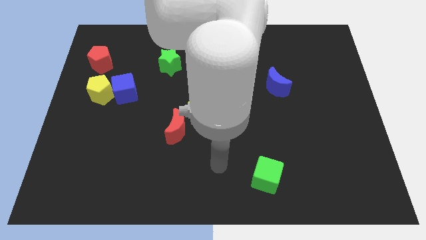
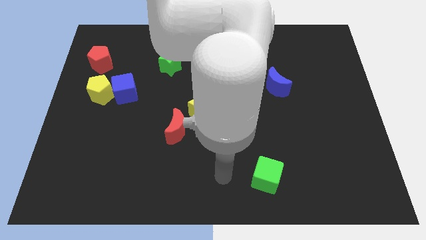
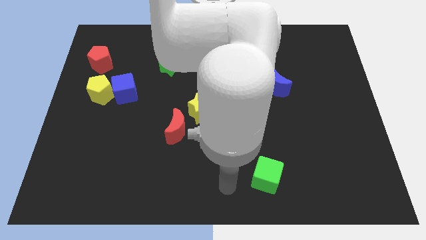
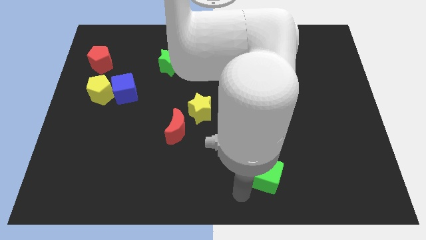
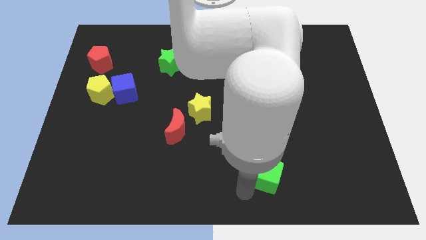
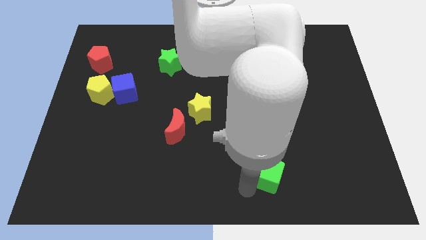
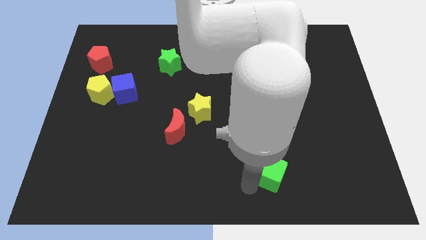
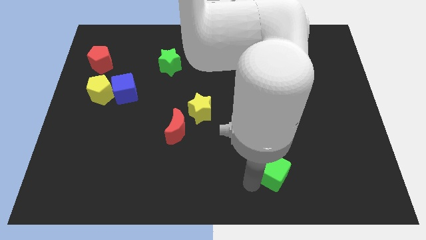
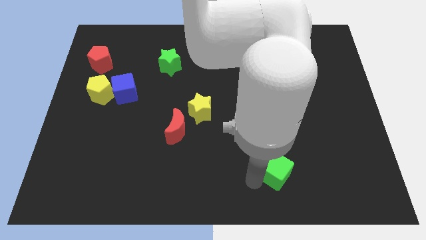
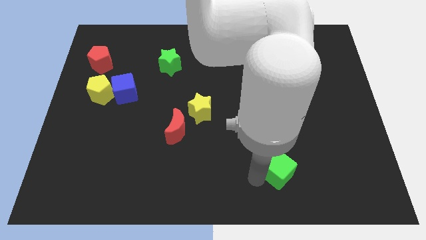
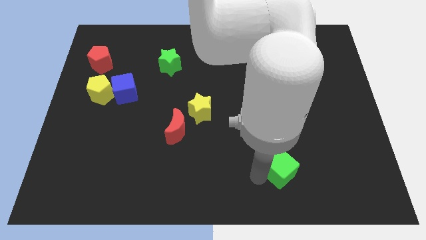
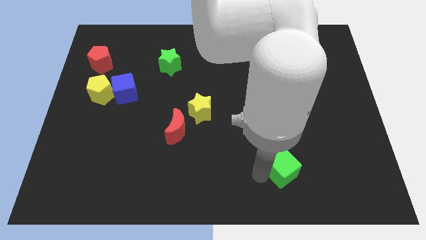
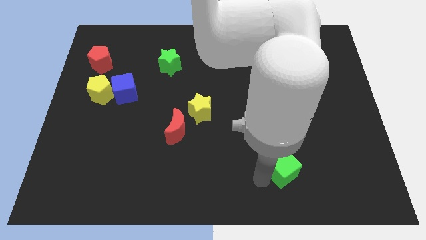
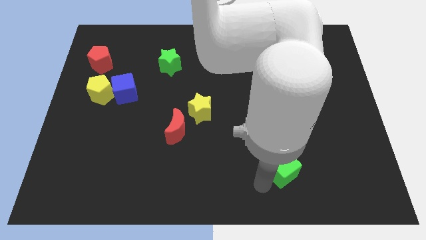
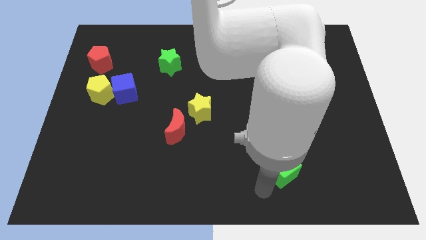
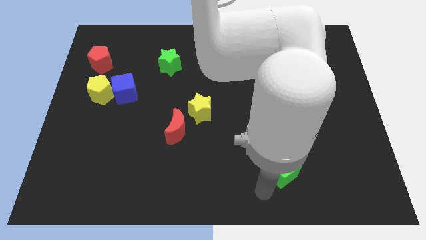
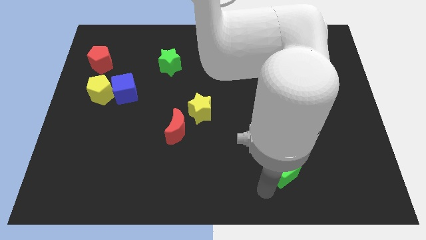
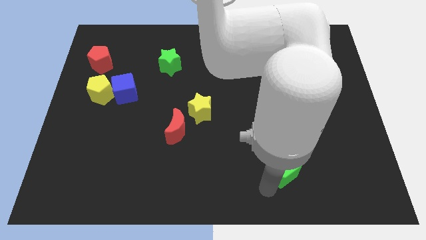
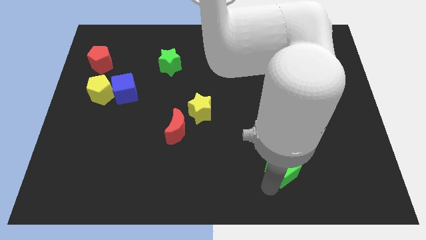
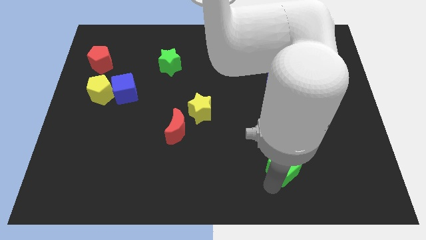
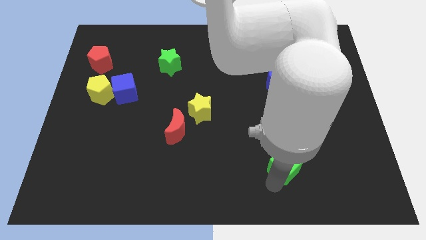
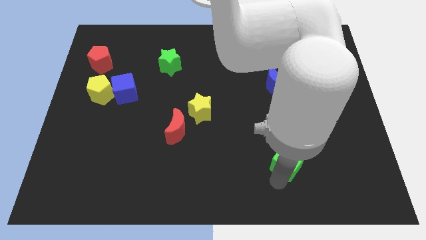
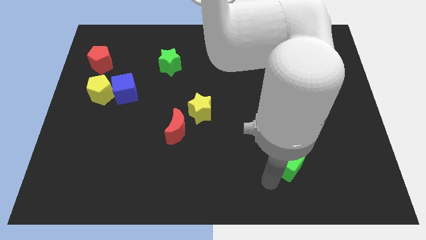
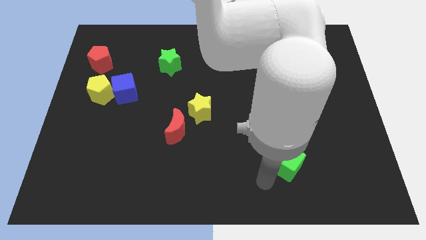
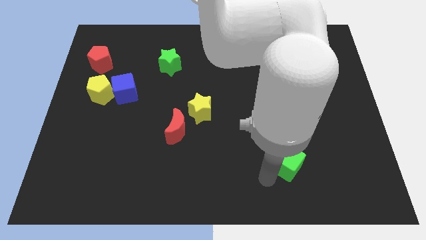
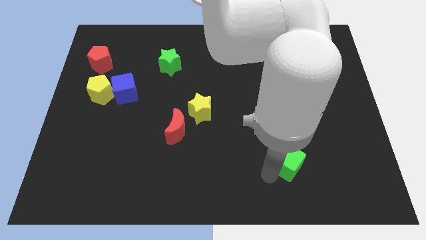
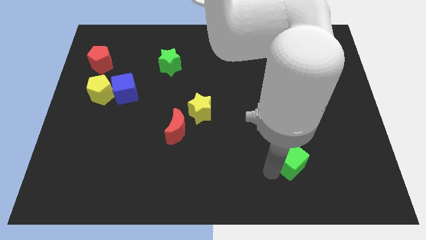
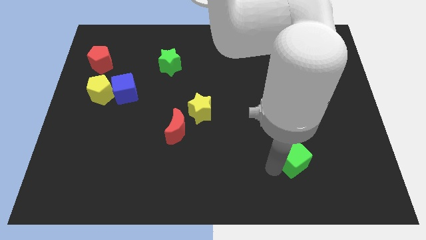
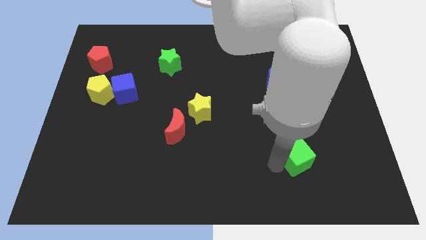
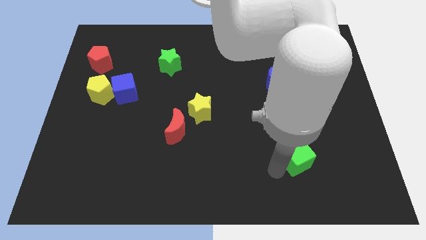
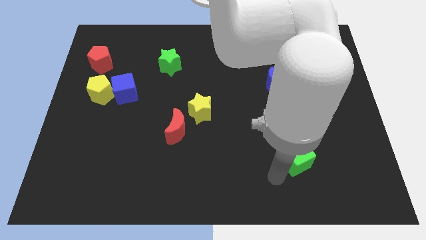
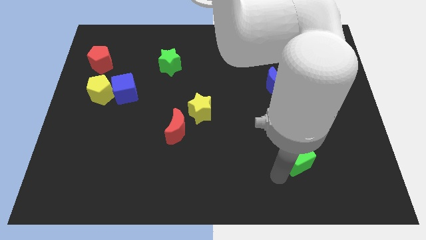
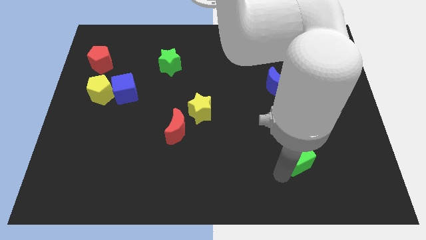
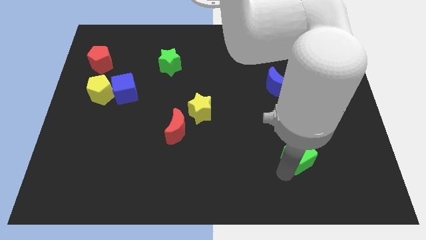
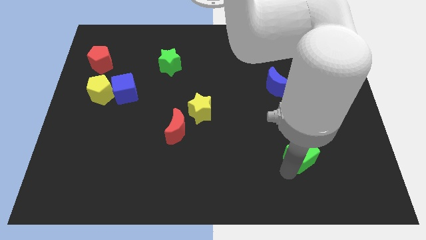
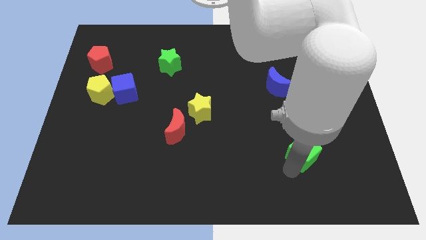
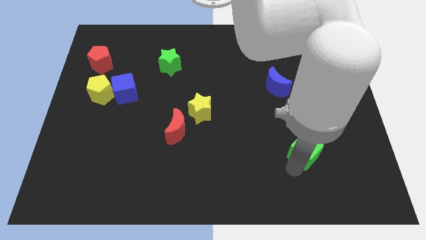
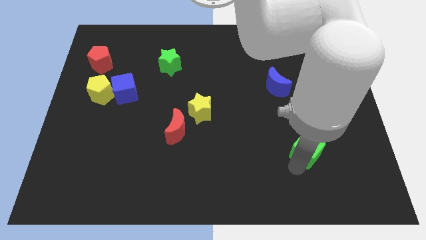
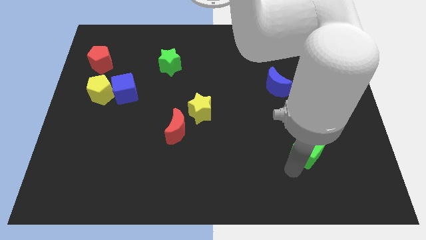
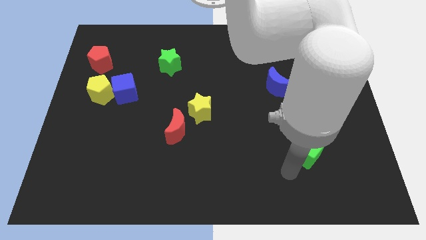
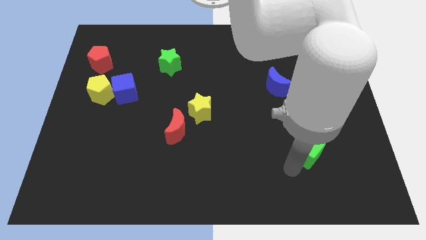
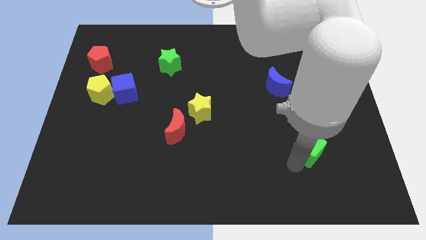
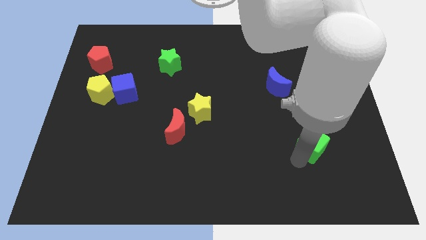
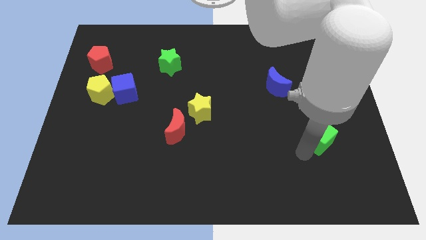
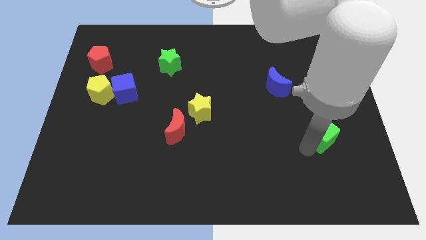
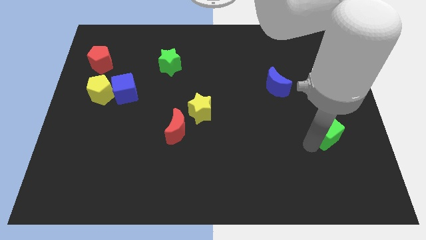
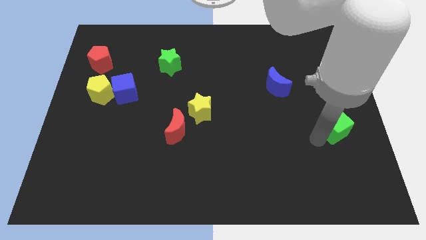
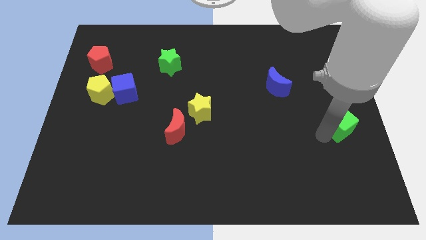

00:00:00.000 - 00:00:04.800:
slide the green cube to the right side

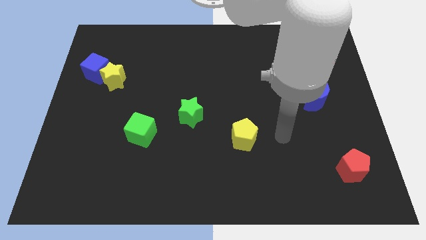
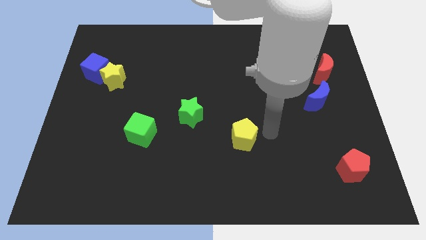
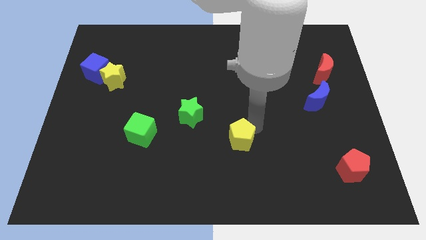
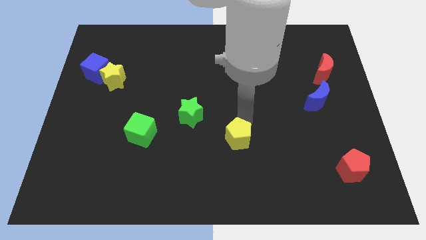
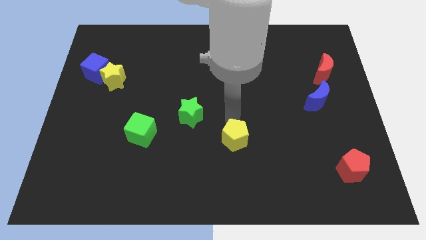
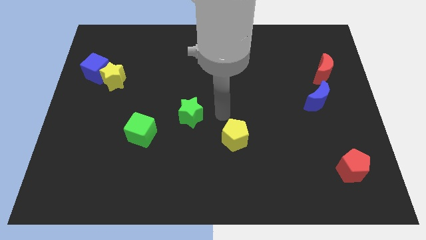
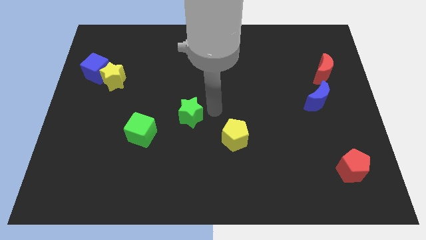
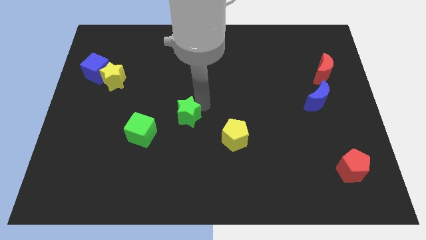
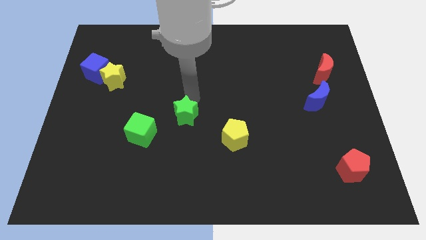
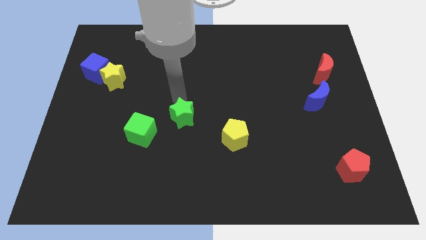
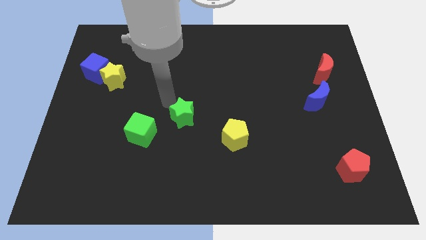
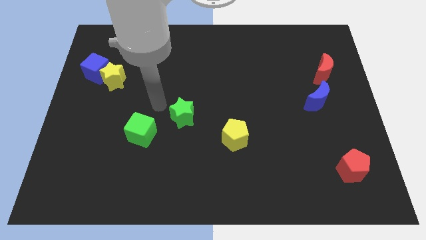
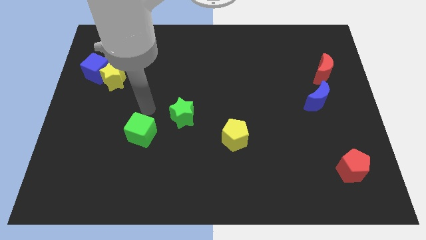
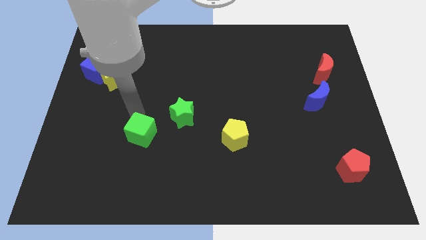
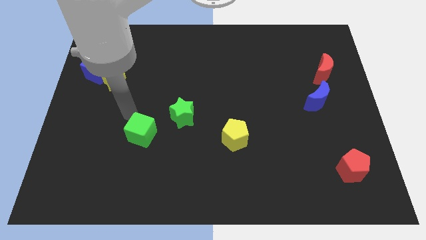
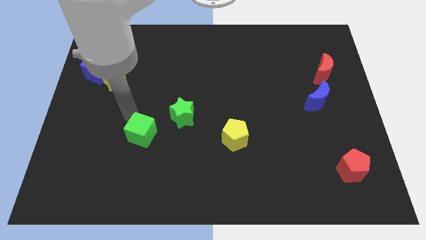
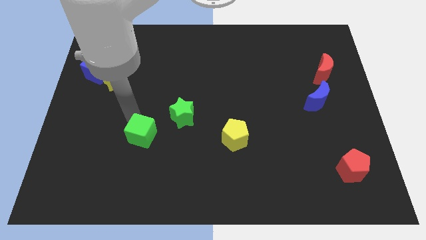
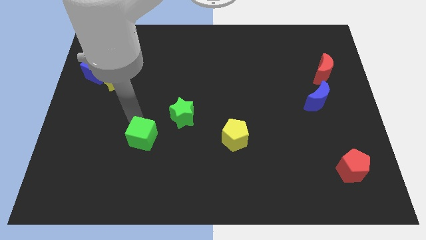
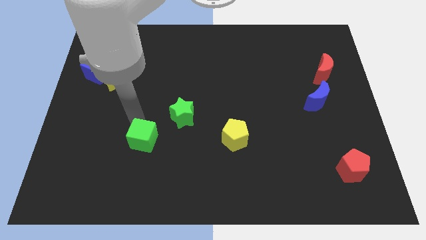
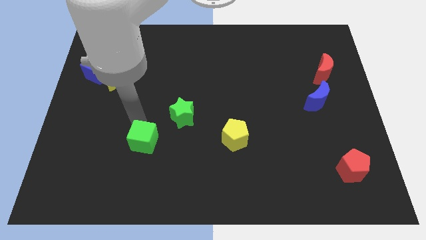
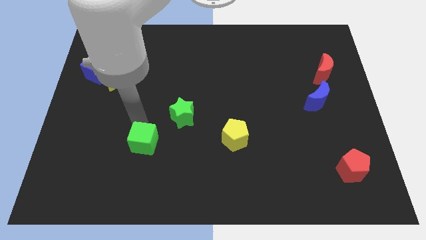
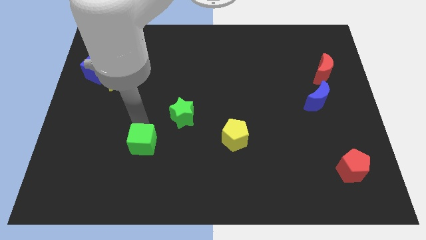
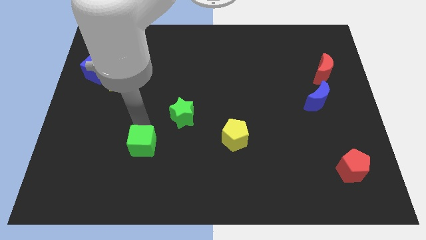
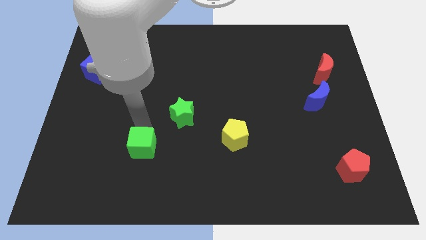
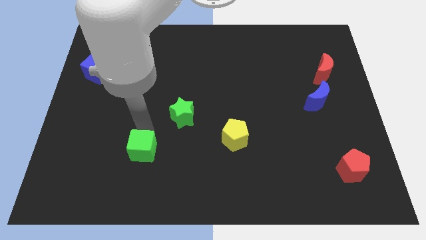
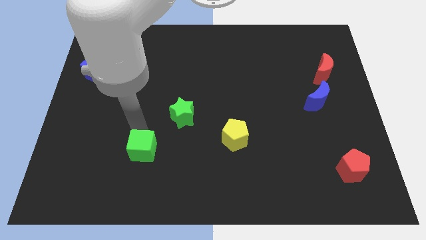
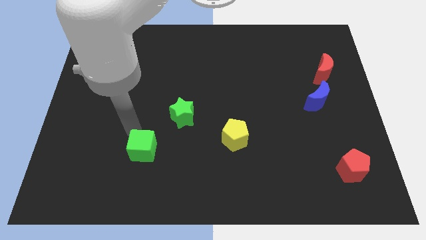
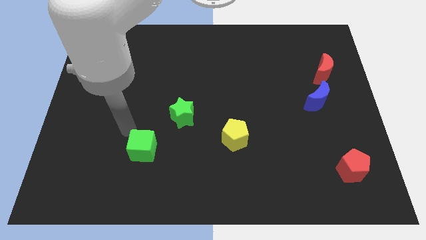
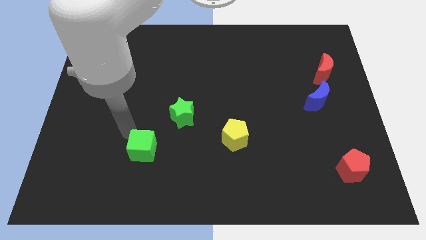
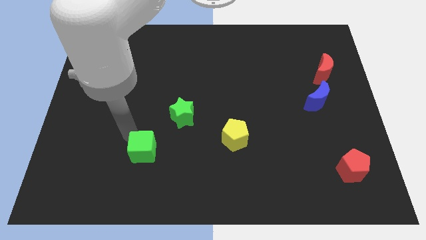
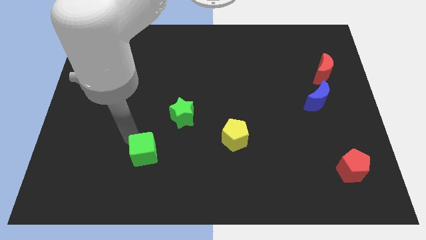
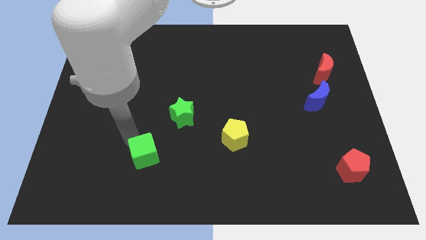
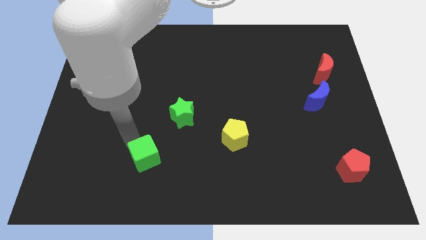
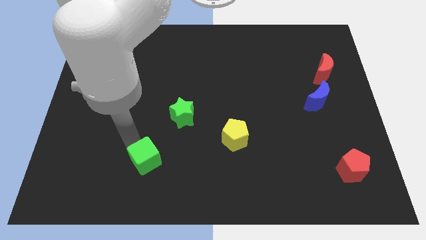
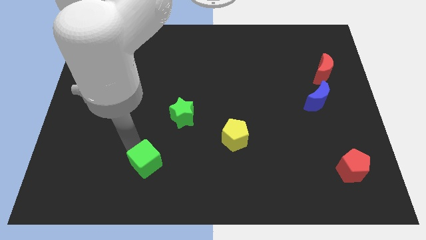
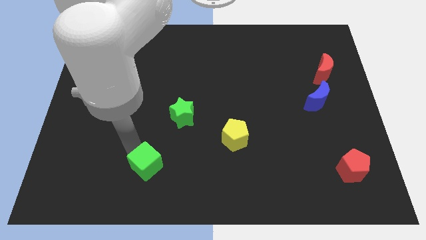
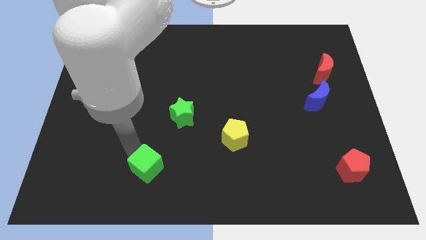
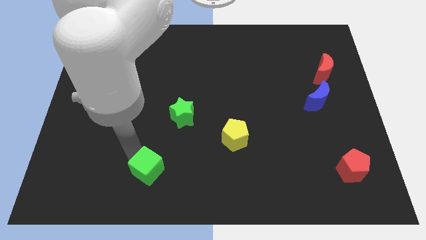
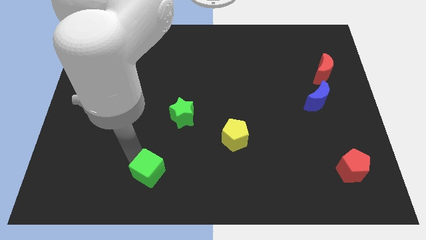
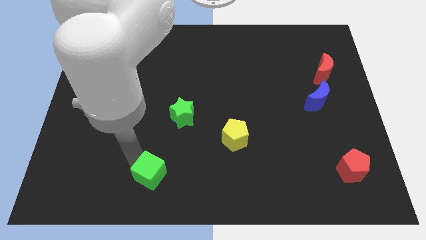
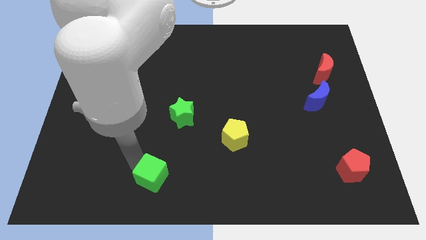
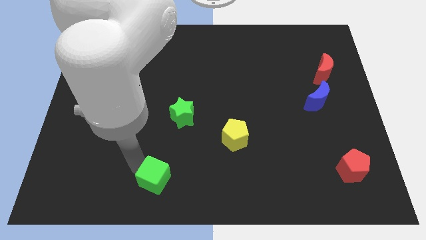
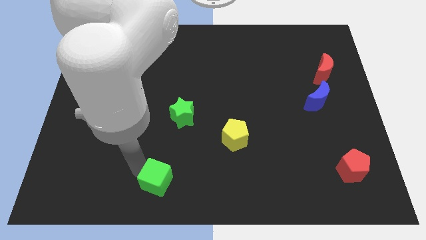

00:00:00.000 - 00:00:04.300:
push the green cube to the bottom
